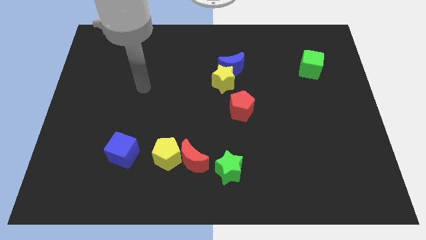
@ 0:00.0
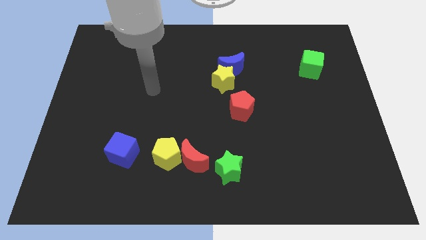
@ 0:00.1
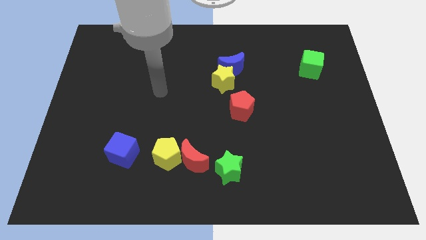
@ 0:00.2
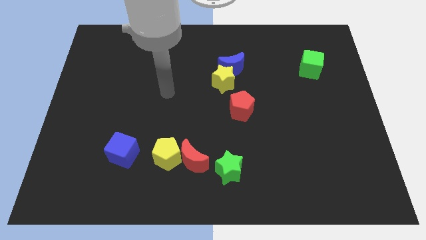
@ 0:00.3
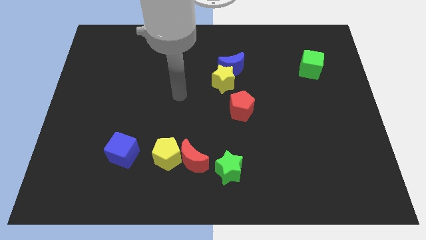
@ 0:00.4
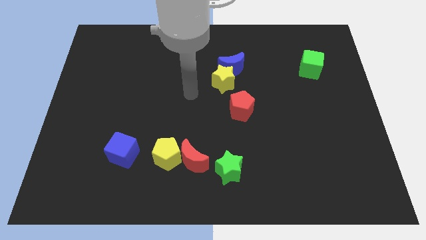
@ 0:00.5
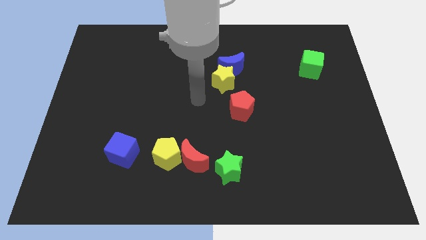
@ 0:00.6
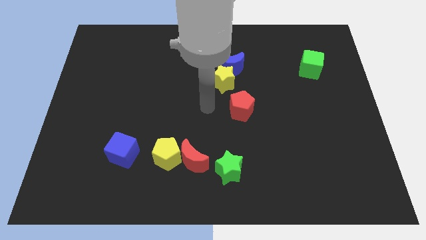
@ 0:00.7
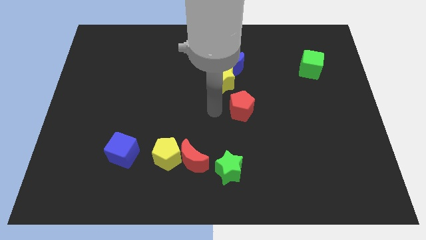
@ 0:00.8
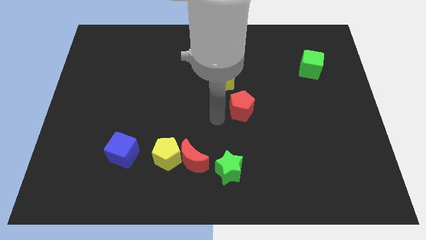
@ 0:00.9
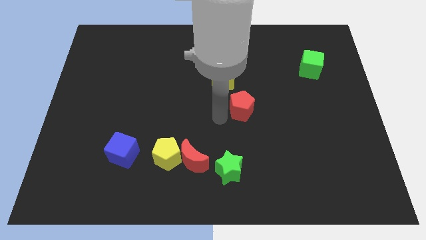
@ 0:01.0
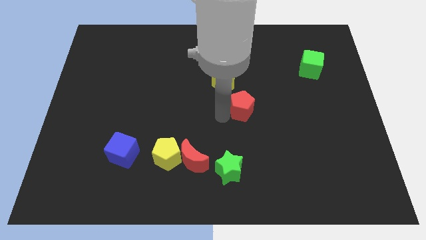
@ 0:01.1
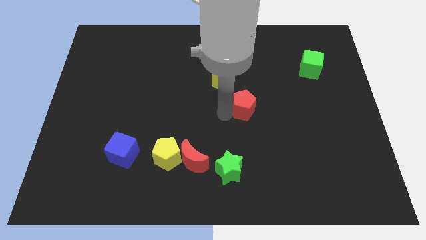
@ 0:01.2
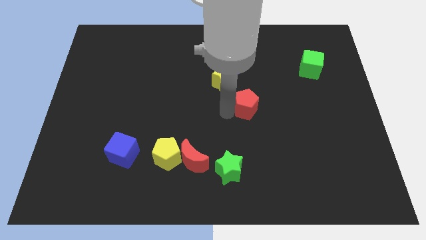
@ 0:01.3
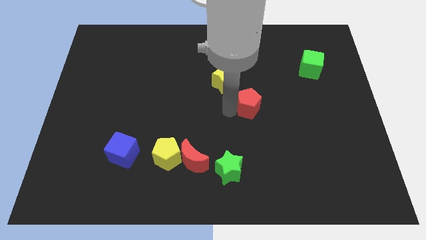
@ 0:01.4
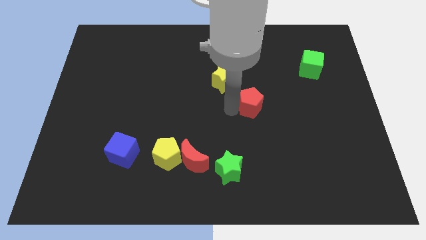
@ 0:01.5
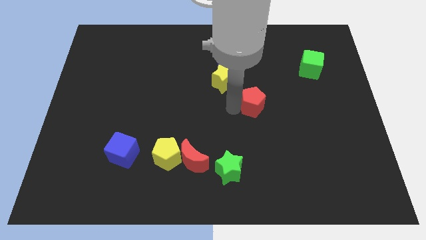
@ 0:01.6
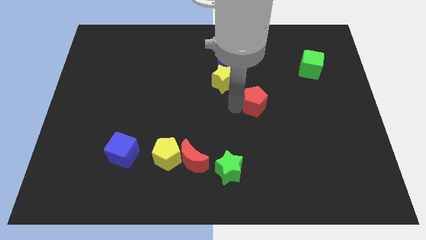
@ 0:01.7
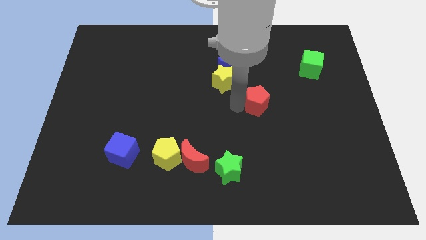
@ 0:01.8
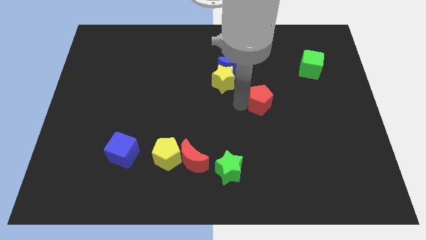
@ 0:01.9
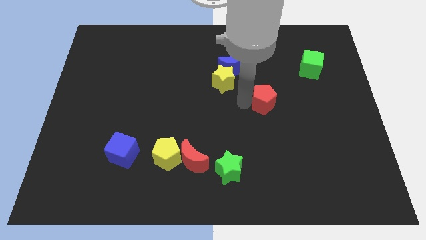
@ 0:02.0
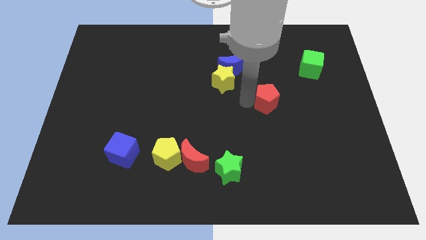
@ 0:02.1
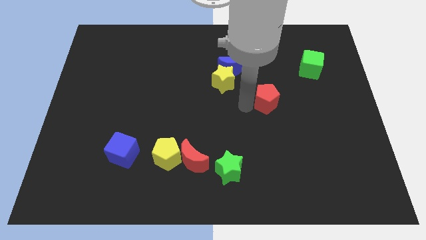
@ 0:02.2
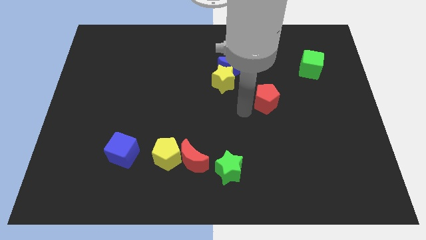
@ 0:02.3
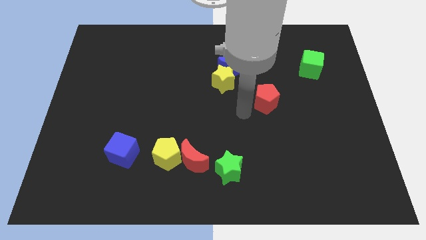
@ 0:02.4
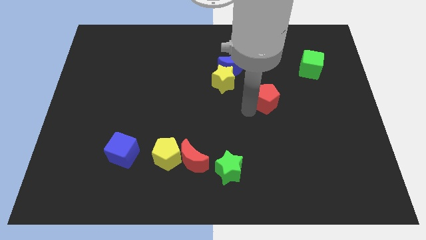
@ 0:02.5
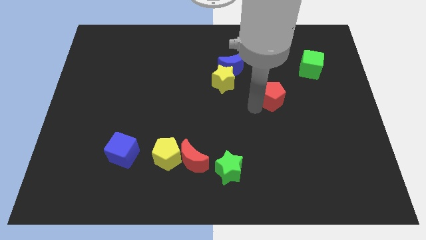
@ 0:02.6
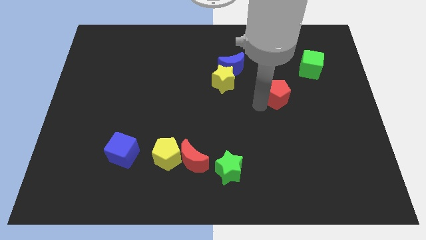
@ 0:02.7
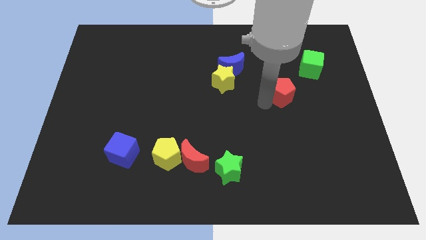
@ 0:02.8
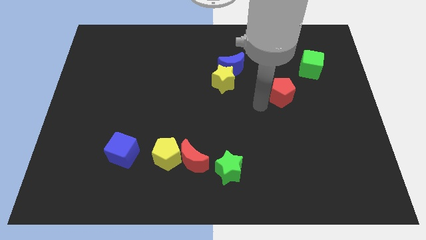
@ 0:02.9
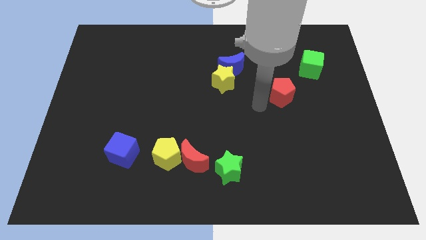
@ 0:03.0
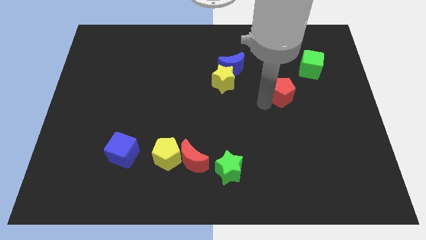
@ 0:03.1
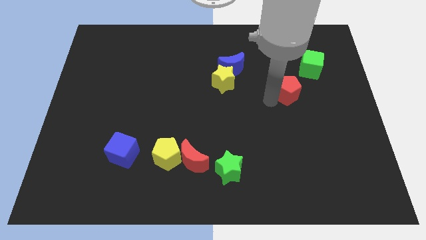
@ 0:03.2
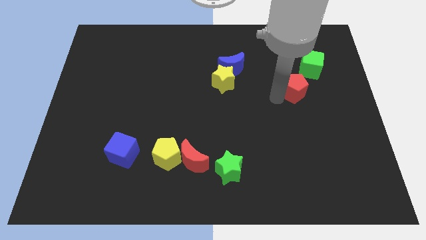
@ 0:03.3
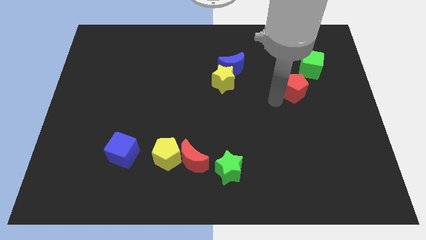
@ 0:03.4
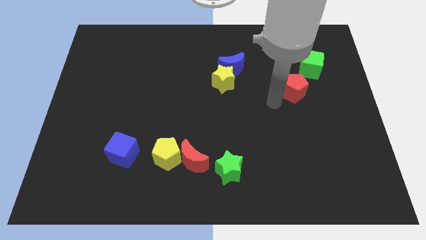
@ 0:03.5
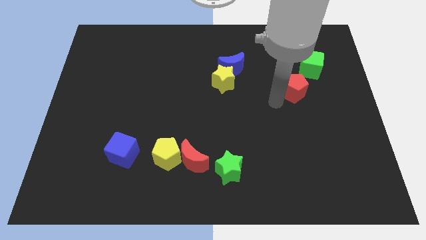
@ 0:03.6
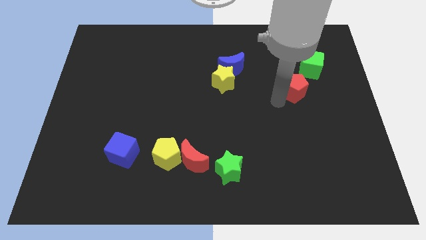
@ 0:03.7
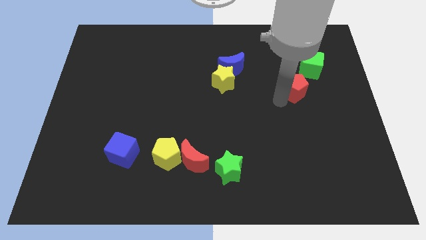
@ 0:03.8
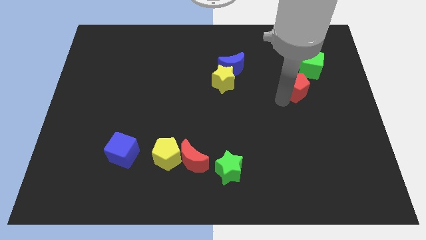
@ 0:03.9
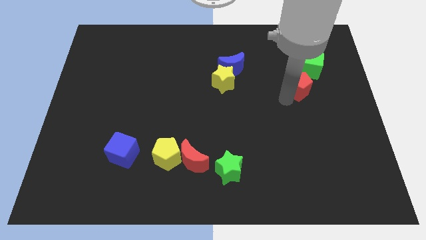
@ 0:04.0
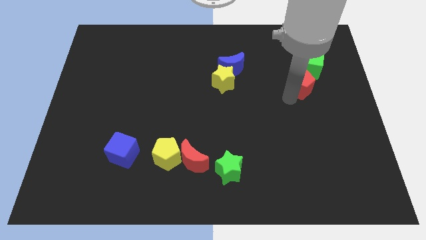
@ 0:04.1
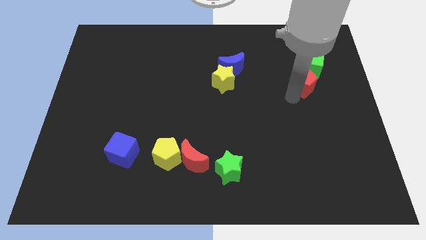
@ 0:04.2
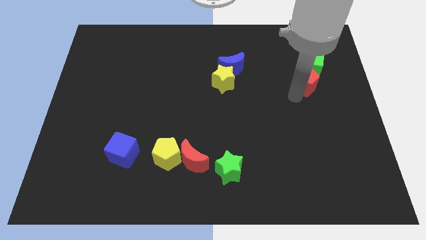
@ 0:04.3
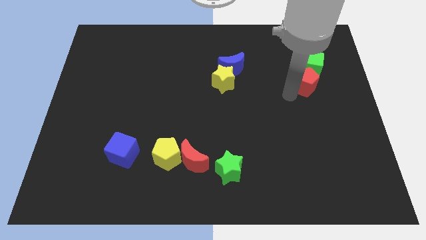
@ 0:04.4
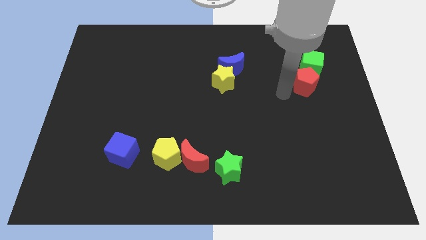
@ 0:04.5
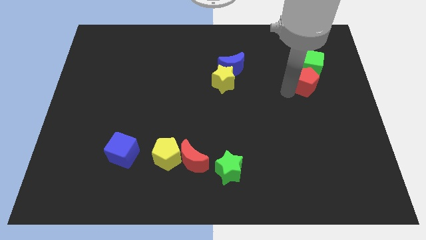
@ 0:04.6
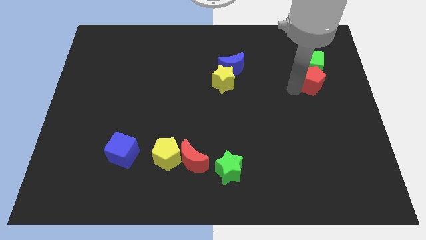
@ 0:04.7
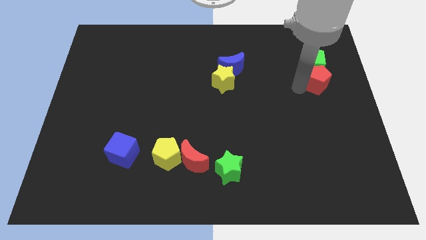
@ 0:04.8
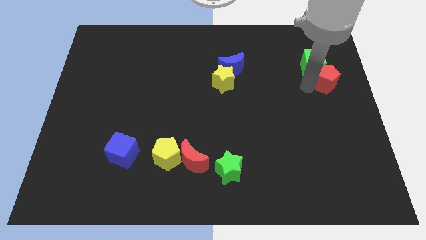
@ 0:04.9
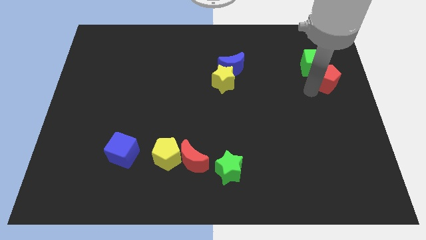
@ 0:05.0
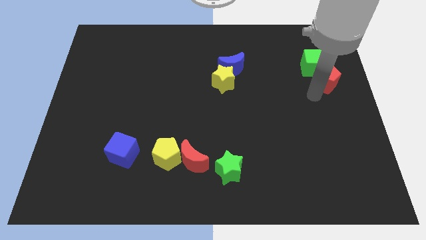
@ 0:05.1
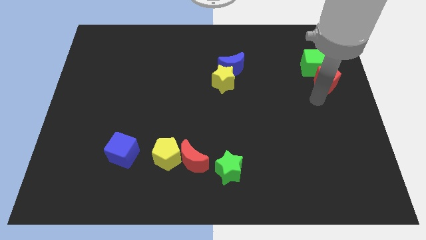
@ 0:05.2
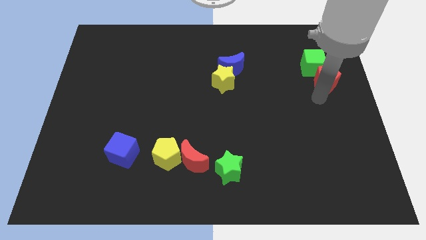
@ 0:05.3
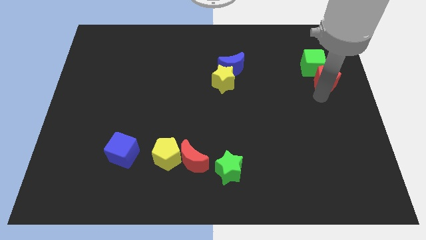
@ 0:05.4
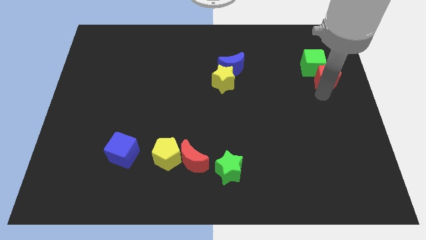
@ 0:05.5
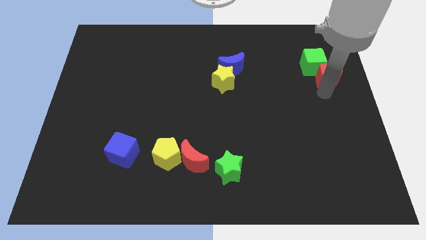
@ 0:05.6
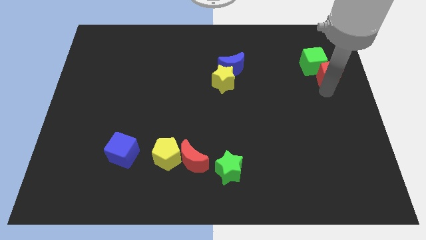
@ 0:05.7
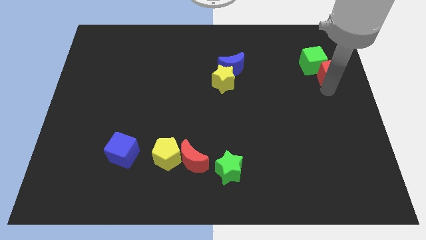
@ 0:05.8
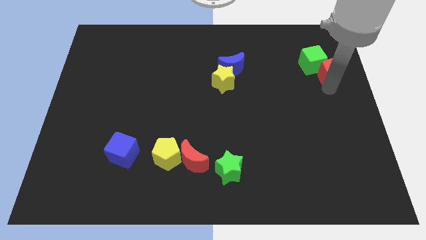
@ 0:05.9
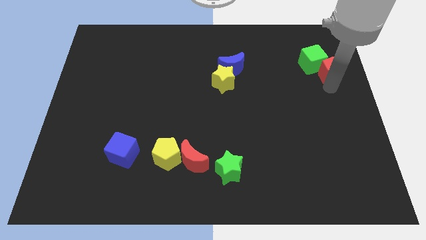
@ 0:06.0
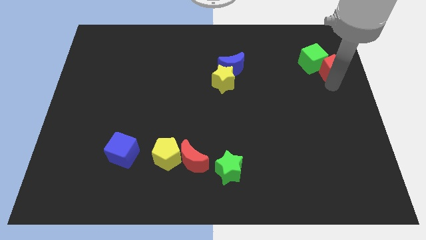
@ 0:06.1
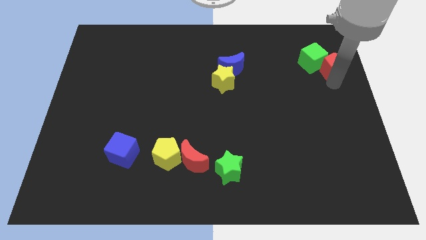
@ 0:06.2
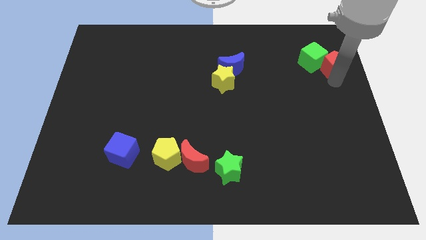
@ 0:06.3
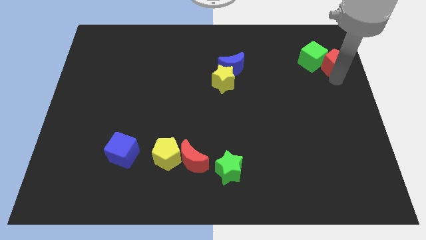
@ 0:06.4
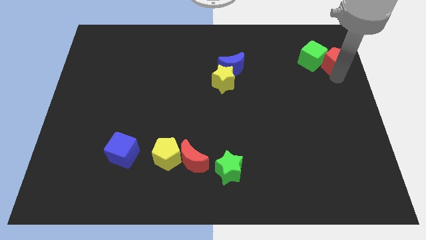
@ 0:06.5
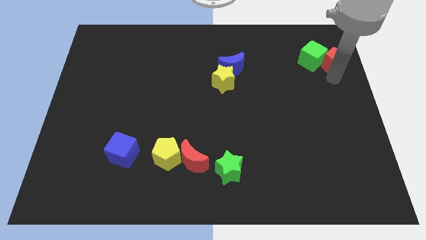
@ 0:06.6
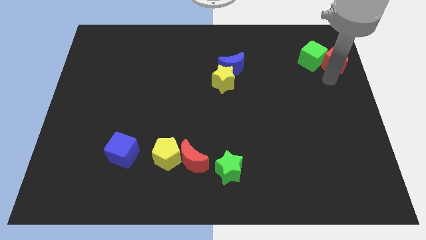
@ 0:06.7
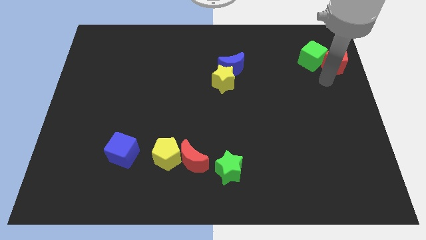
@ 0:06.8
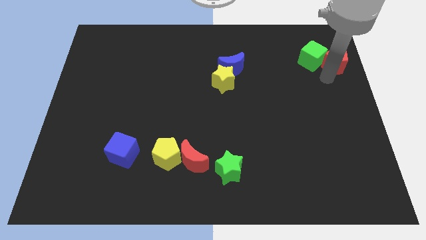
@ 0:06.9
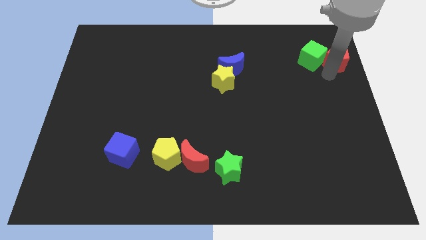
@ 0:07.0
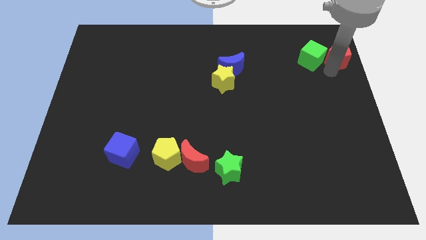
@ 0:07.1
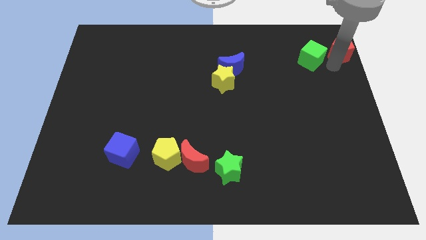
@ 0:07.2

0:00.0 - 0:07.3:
slide the red pentagon to the top right of the board
